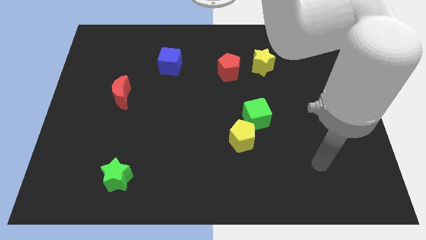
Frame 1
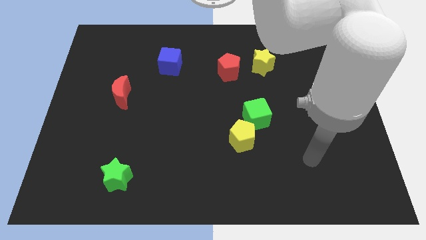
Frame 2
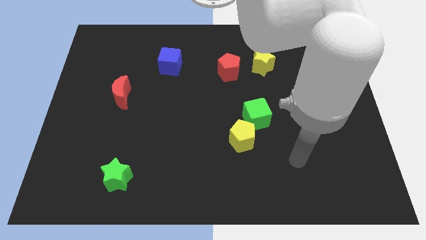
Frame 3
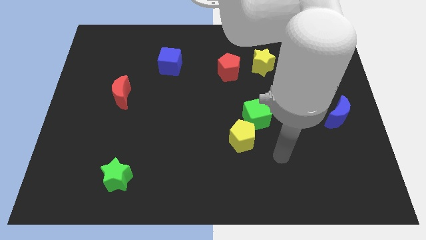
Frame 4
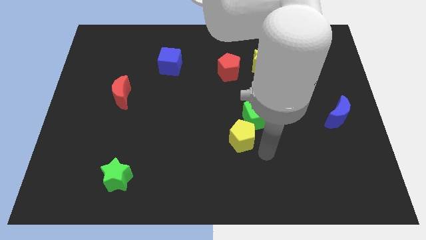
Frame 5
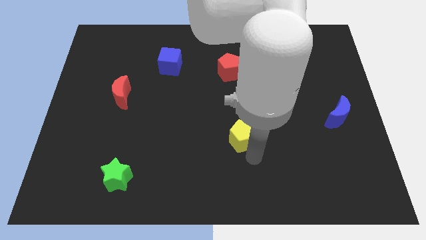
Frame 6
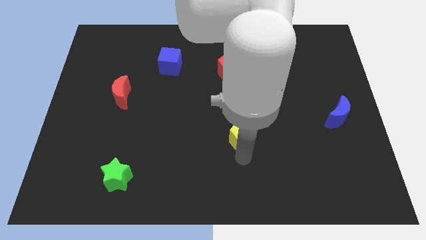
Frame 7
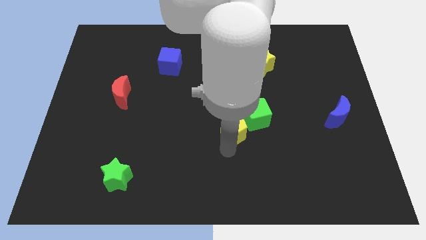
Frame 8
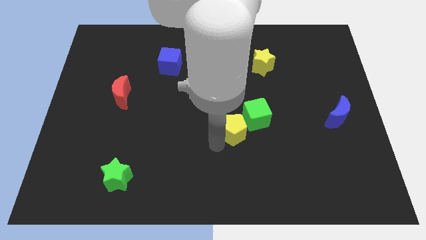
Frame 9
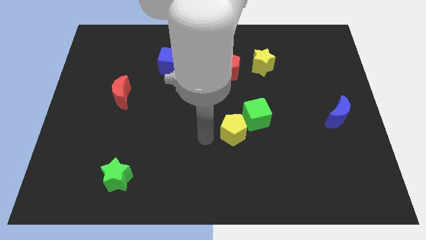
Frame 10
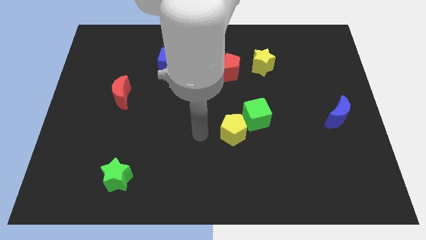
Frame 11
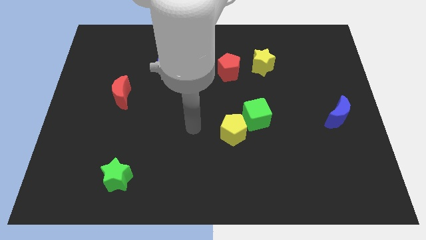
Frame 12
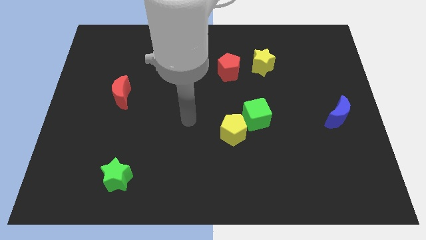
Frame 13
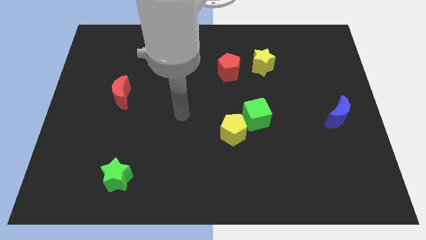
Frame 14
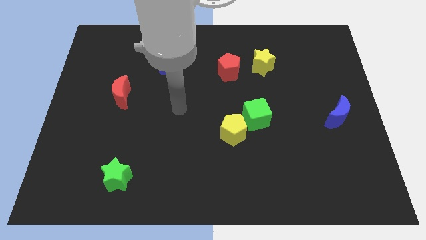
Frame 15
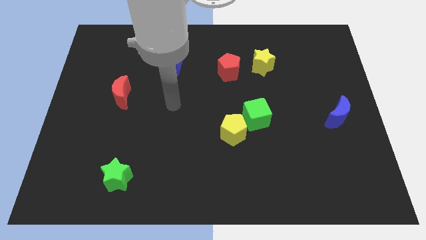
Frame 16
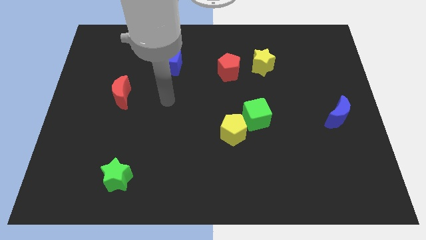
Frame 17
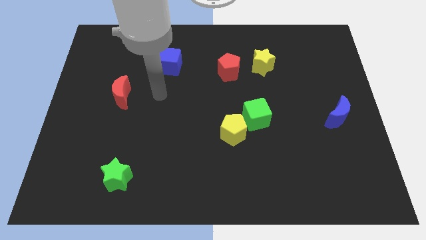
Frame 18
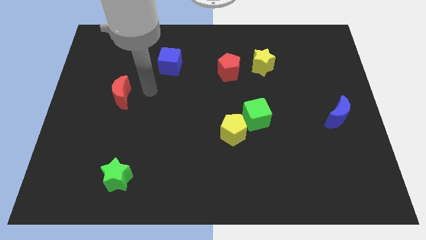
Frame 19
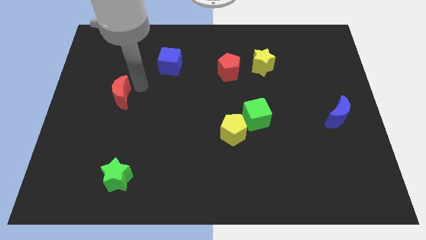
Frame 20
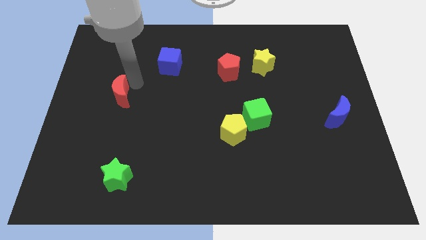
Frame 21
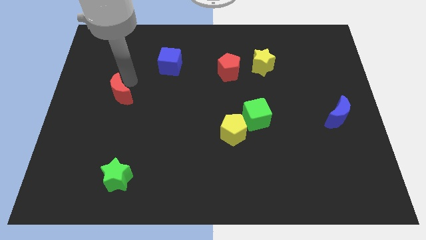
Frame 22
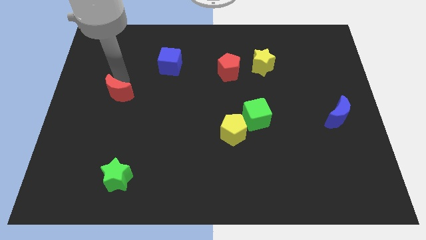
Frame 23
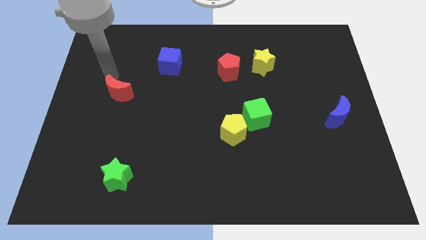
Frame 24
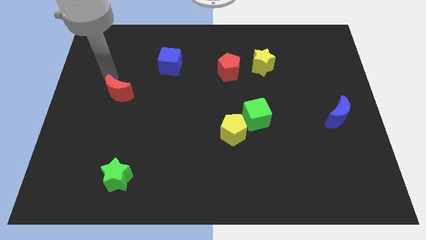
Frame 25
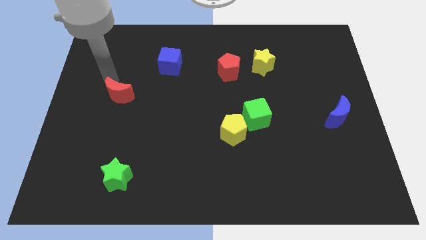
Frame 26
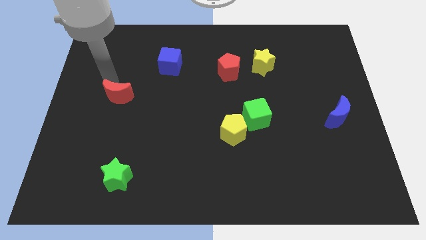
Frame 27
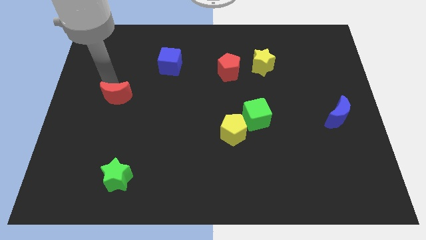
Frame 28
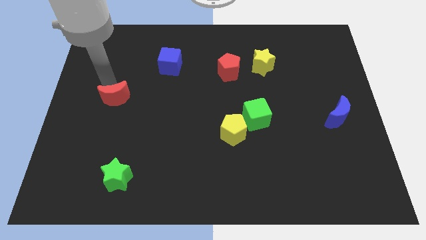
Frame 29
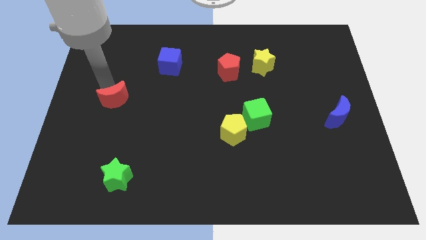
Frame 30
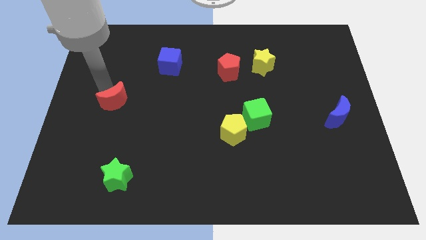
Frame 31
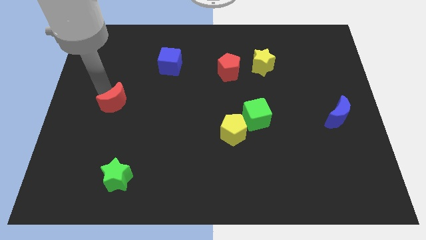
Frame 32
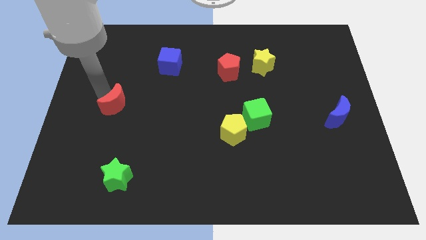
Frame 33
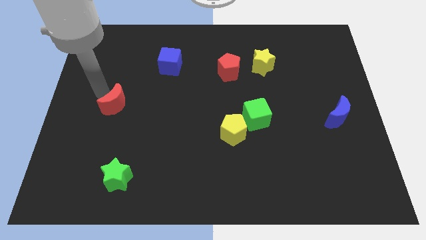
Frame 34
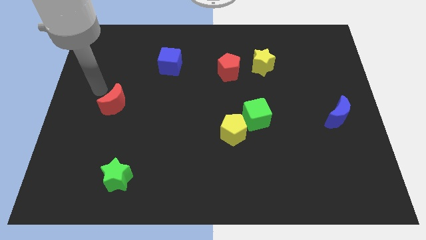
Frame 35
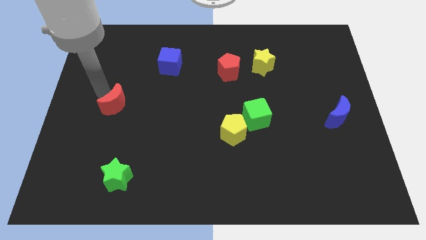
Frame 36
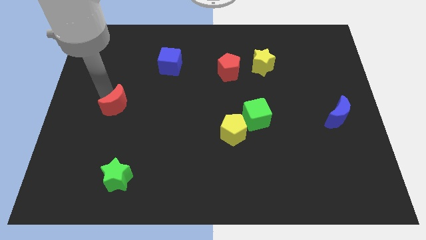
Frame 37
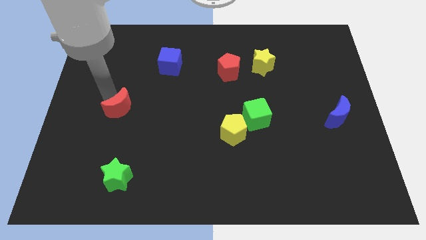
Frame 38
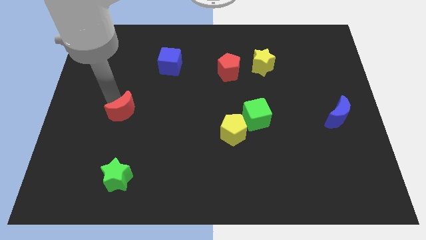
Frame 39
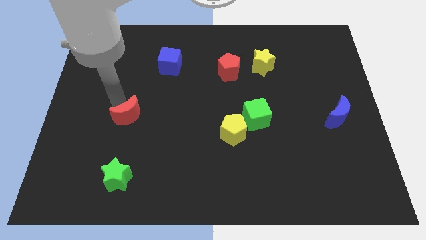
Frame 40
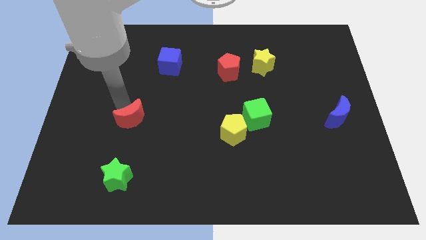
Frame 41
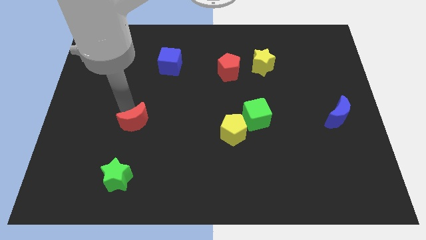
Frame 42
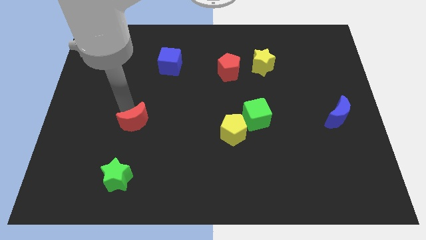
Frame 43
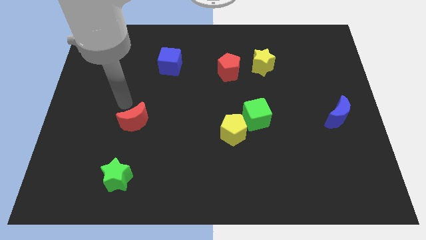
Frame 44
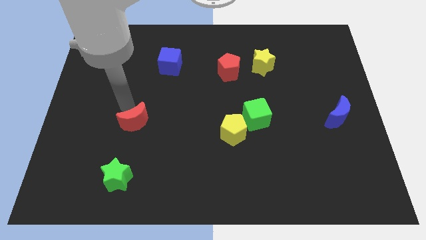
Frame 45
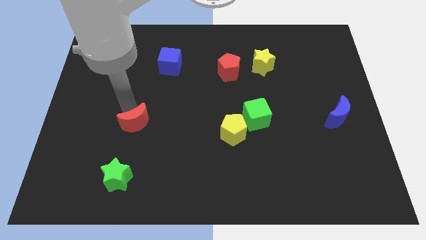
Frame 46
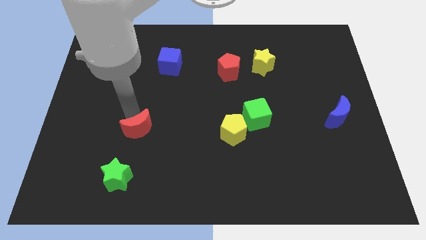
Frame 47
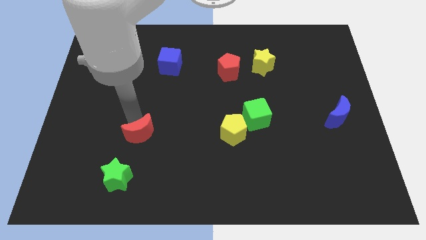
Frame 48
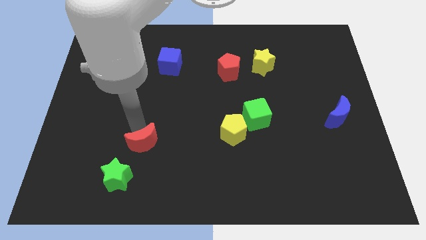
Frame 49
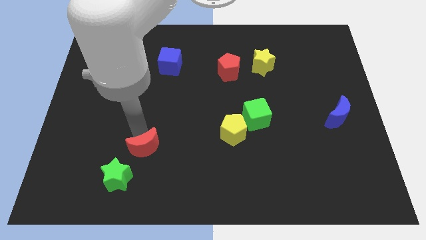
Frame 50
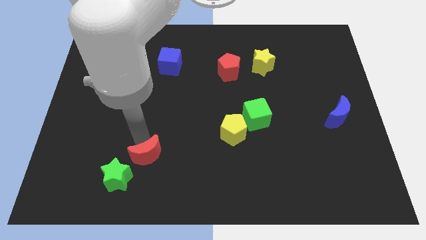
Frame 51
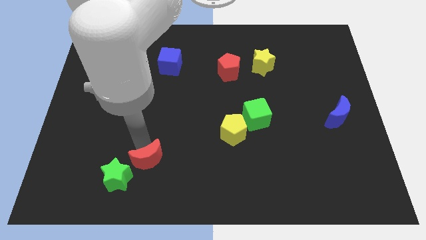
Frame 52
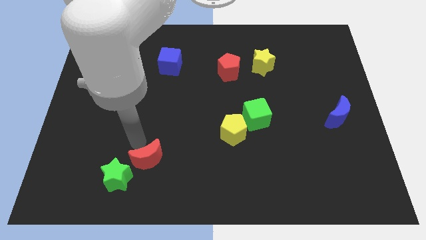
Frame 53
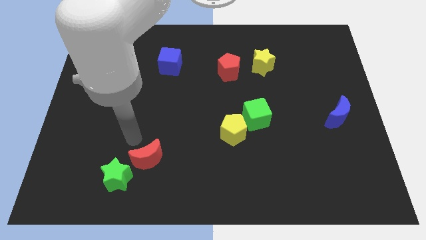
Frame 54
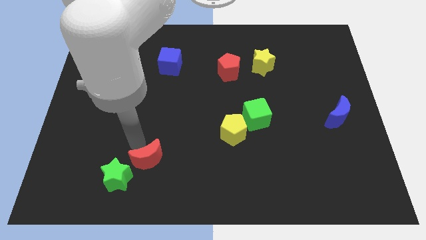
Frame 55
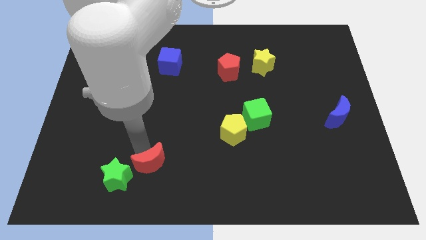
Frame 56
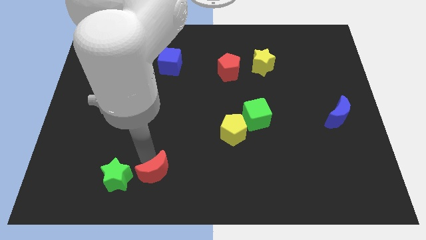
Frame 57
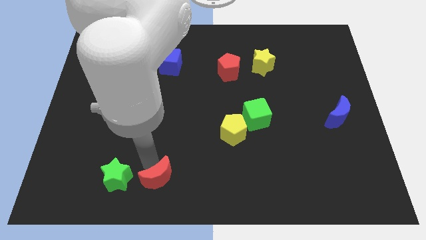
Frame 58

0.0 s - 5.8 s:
move the red moon to the bottom side
